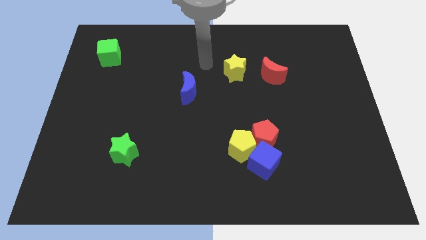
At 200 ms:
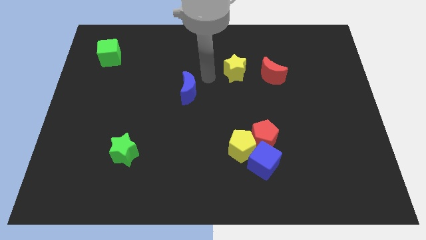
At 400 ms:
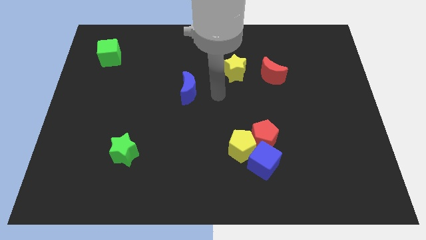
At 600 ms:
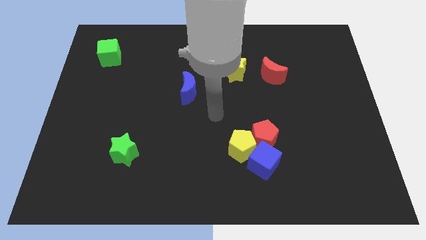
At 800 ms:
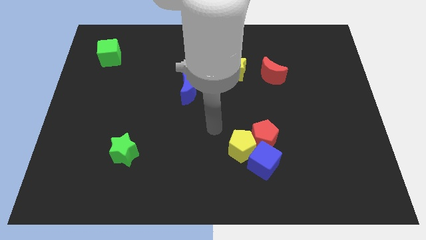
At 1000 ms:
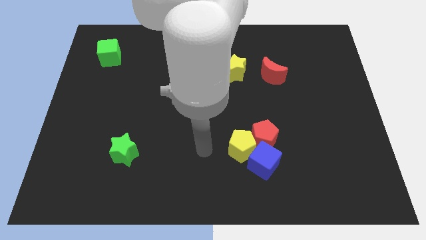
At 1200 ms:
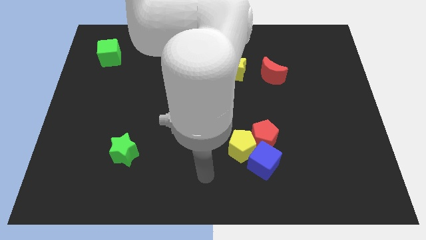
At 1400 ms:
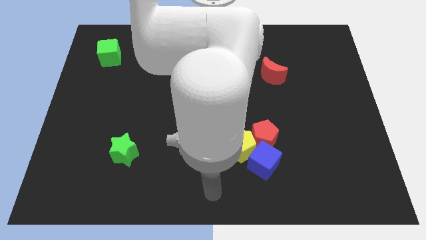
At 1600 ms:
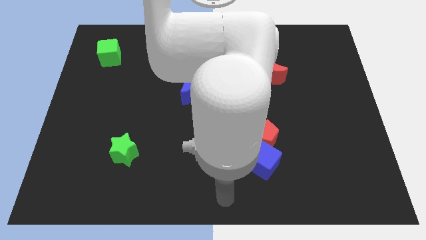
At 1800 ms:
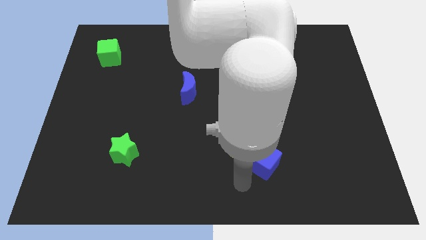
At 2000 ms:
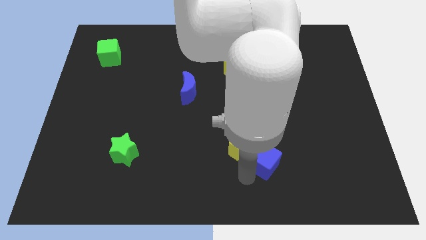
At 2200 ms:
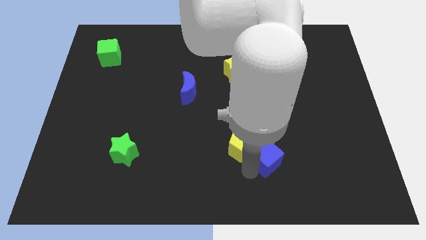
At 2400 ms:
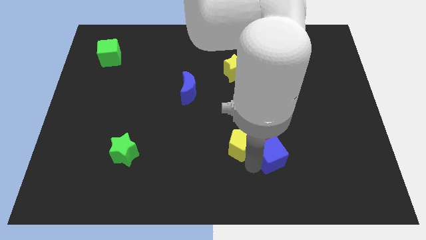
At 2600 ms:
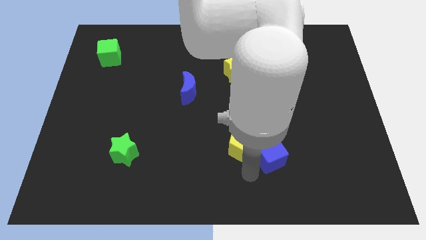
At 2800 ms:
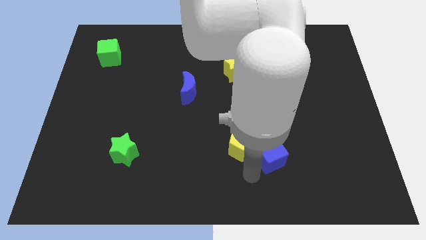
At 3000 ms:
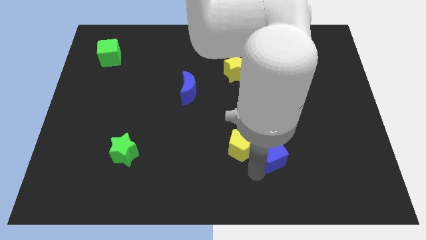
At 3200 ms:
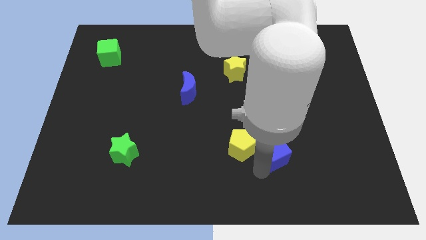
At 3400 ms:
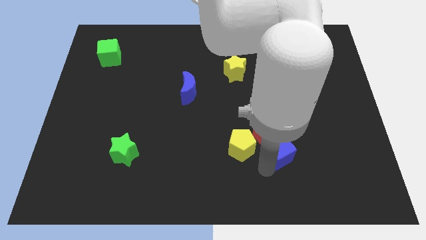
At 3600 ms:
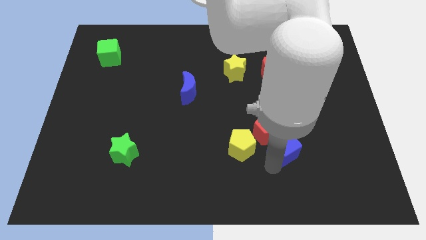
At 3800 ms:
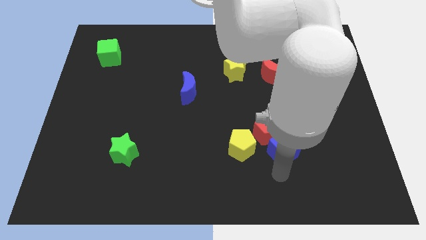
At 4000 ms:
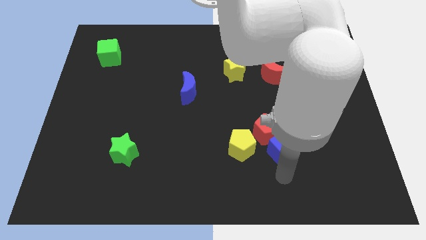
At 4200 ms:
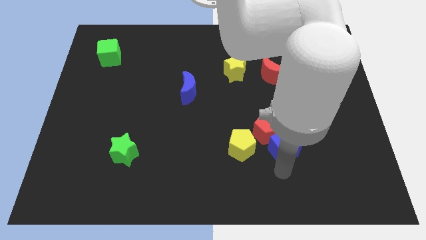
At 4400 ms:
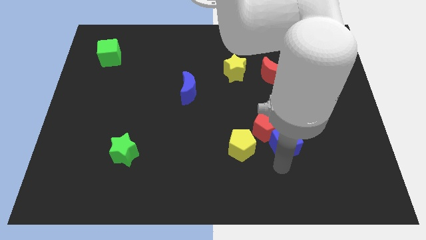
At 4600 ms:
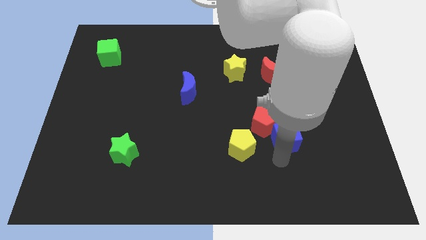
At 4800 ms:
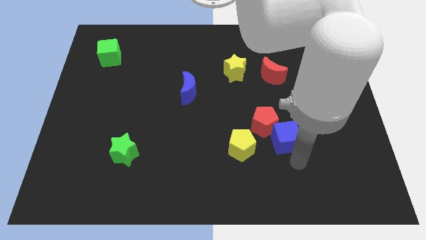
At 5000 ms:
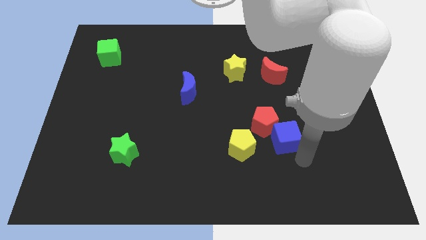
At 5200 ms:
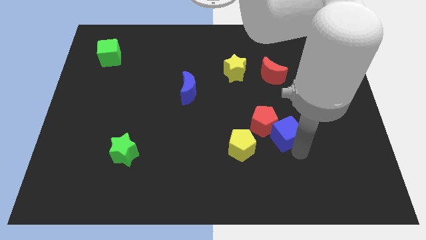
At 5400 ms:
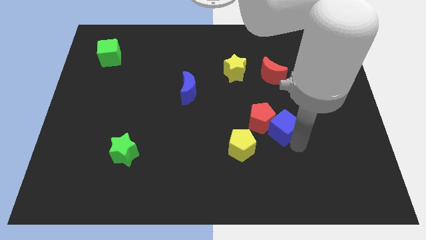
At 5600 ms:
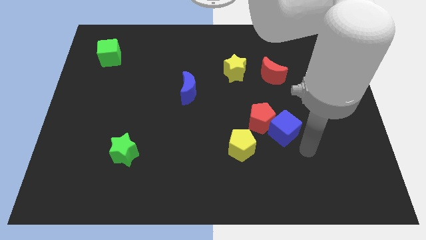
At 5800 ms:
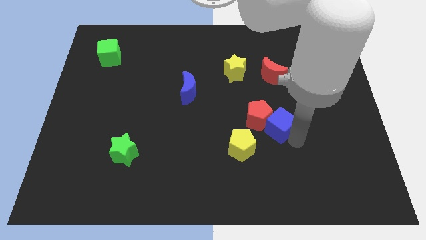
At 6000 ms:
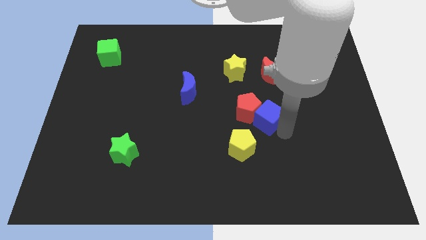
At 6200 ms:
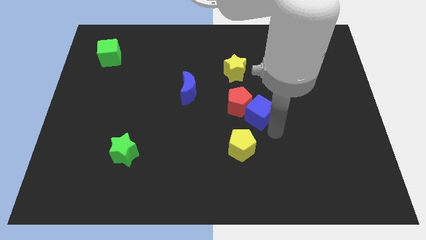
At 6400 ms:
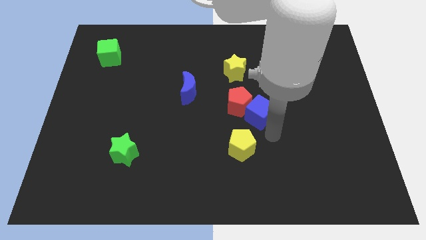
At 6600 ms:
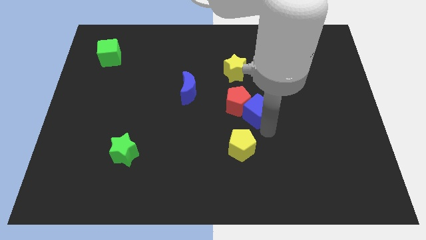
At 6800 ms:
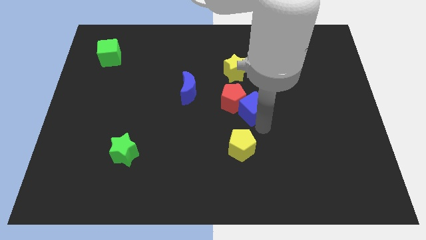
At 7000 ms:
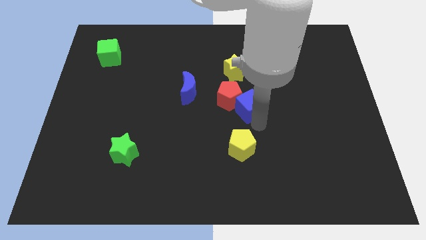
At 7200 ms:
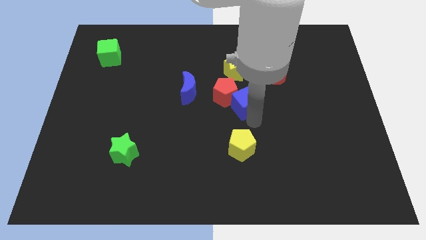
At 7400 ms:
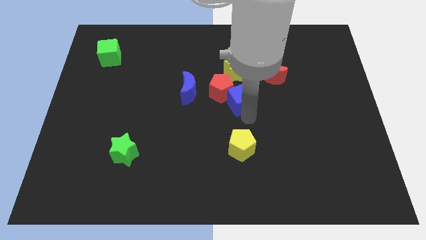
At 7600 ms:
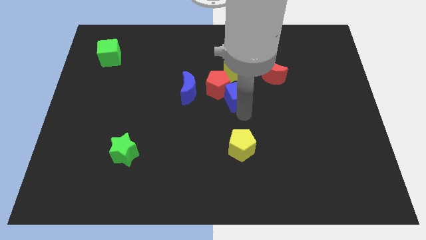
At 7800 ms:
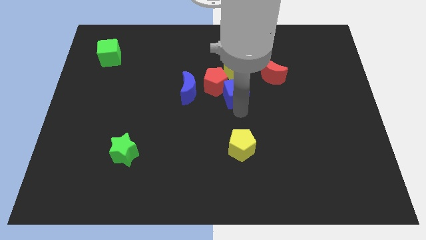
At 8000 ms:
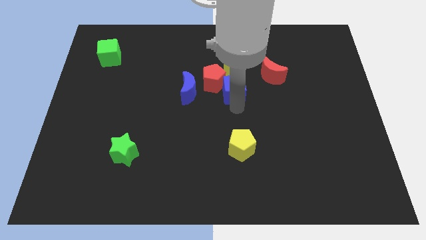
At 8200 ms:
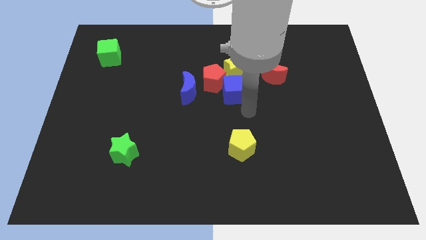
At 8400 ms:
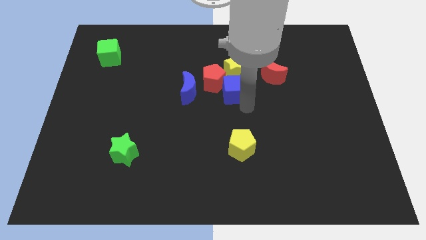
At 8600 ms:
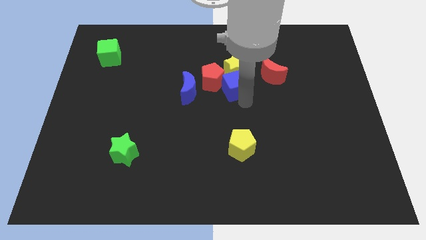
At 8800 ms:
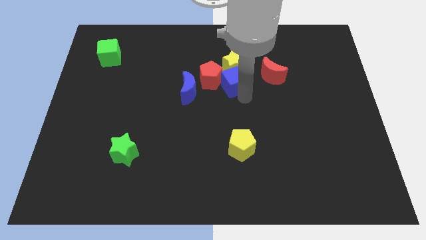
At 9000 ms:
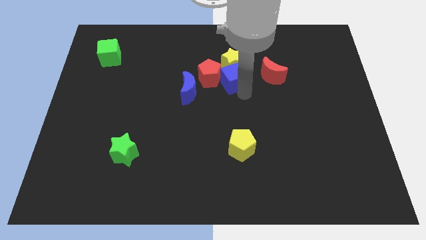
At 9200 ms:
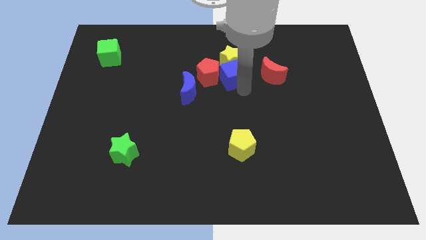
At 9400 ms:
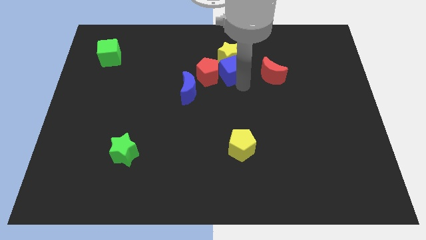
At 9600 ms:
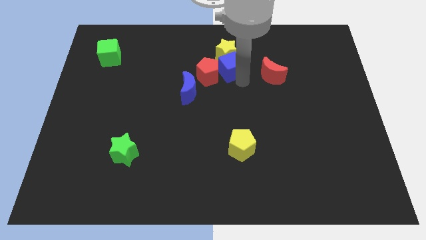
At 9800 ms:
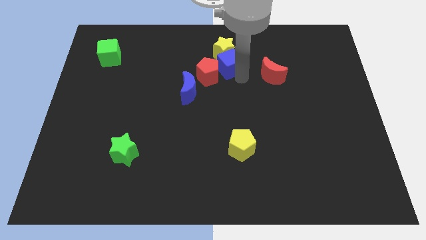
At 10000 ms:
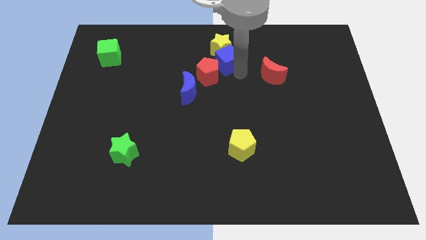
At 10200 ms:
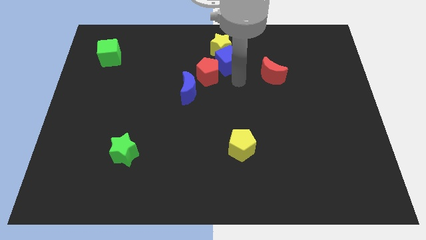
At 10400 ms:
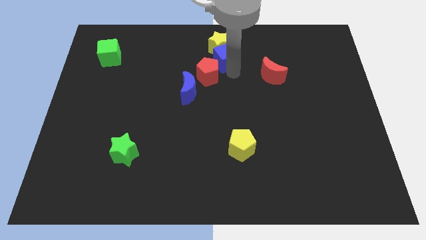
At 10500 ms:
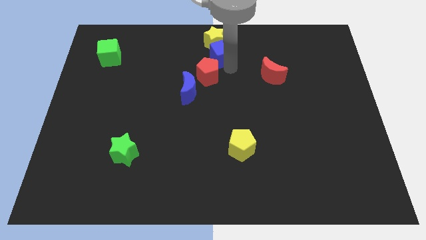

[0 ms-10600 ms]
put the blue cube to the top

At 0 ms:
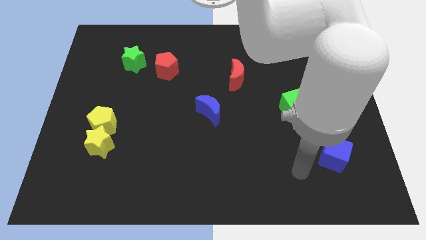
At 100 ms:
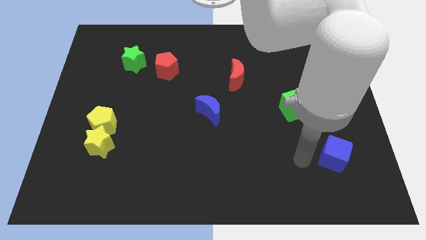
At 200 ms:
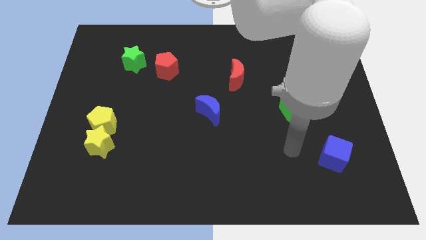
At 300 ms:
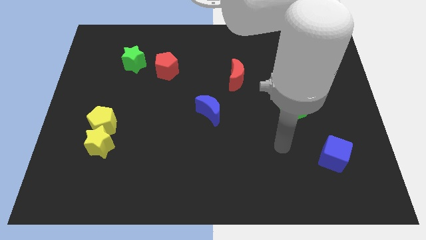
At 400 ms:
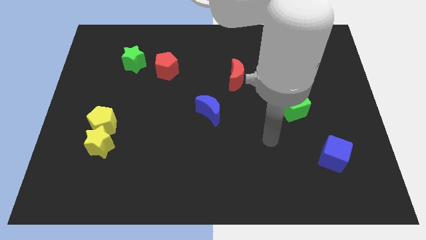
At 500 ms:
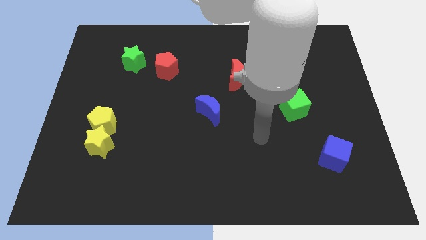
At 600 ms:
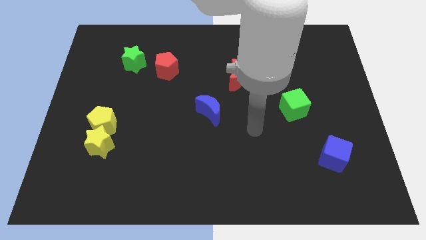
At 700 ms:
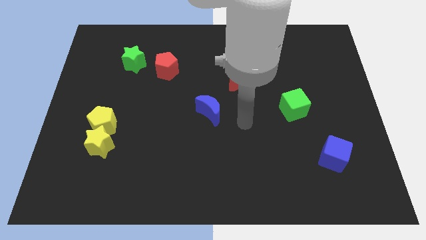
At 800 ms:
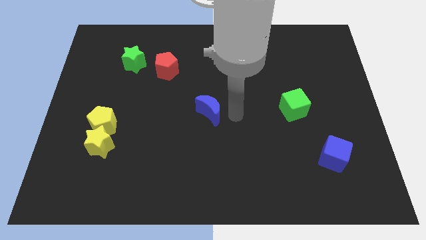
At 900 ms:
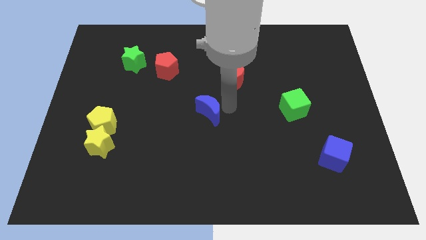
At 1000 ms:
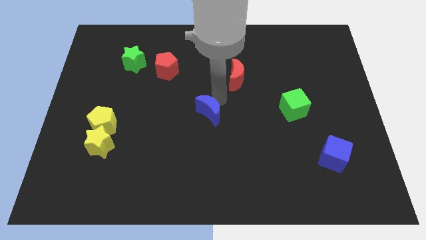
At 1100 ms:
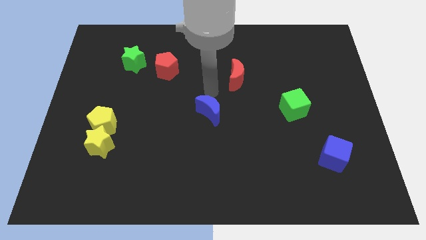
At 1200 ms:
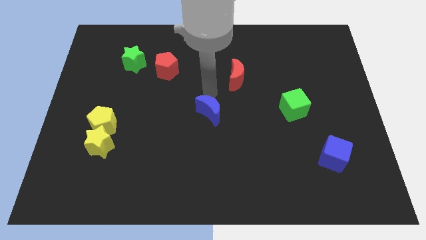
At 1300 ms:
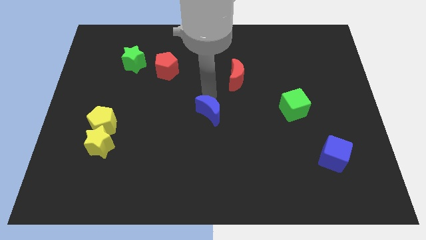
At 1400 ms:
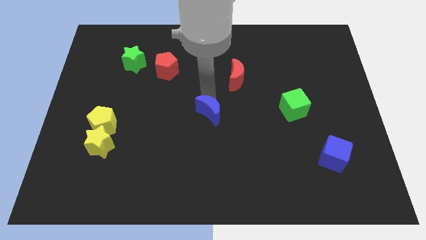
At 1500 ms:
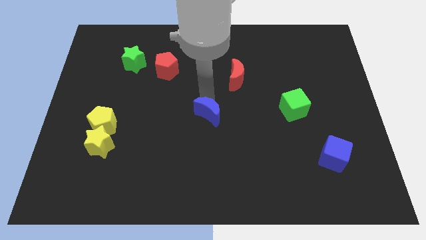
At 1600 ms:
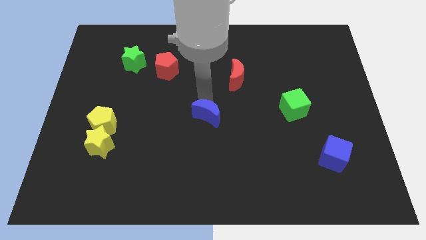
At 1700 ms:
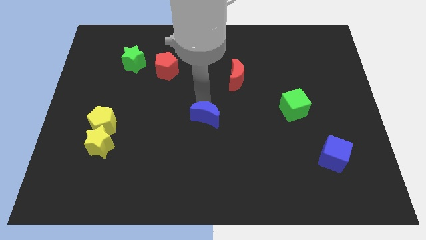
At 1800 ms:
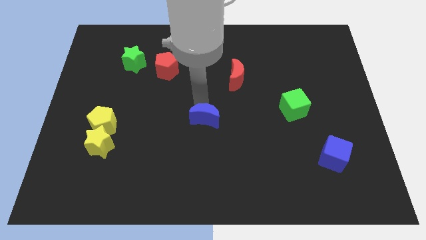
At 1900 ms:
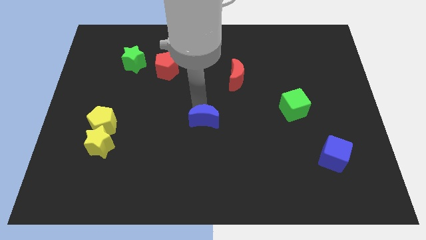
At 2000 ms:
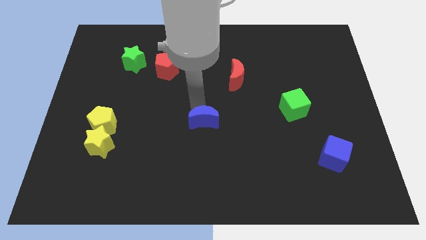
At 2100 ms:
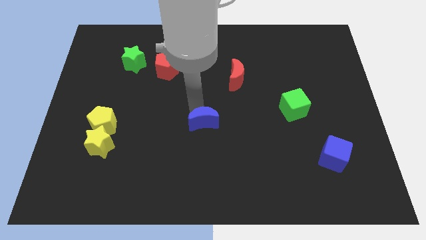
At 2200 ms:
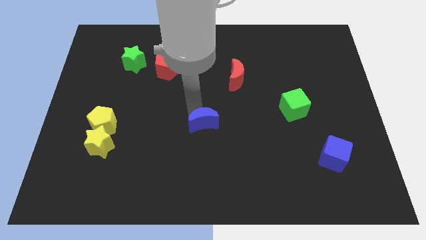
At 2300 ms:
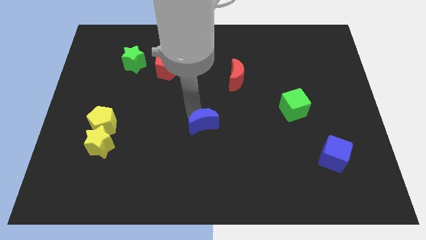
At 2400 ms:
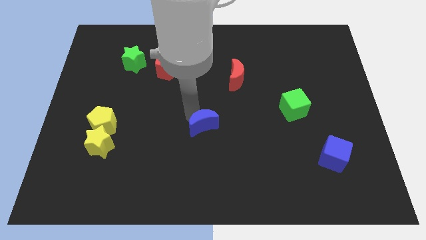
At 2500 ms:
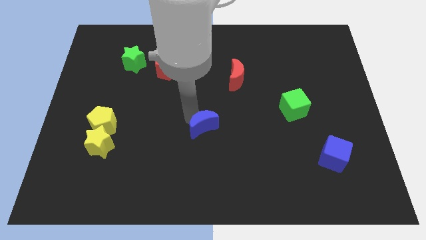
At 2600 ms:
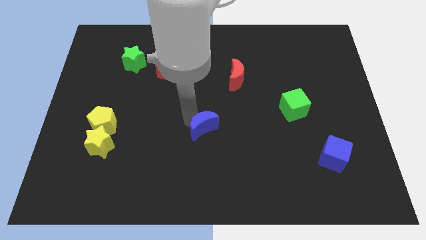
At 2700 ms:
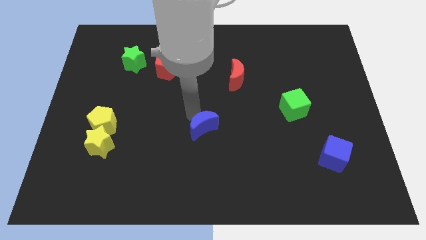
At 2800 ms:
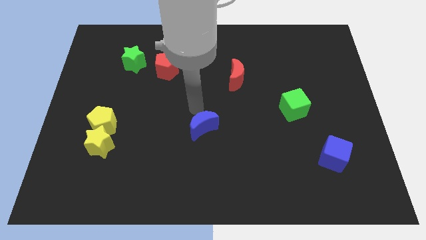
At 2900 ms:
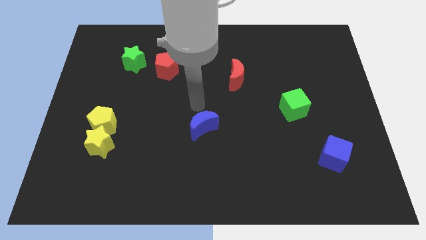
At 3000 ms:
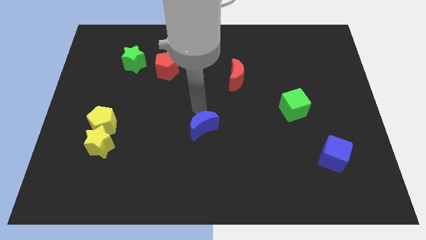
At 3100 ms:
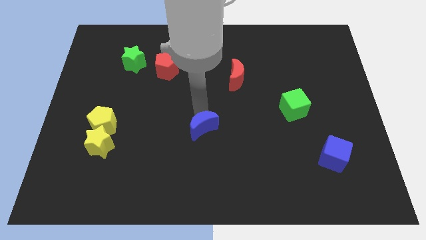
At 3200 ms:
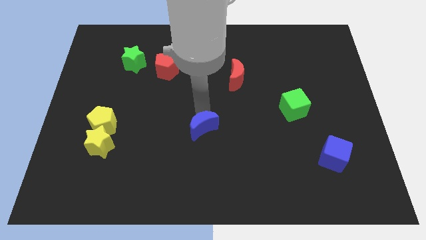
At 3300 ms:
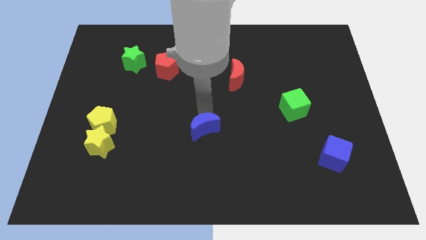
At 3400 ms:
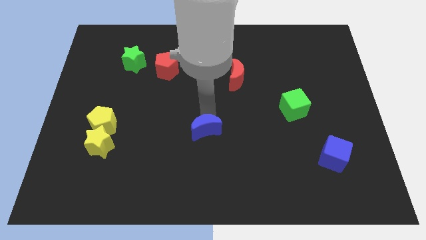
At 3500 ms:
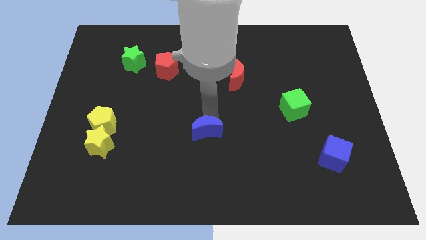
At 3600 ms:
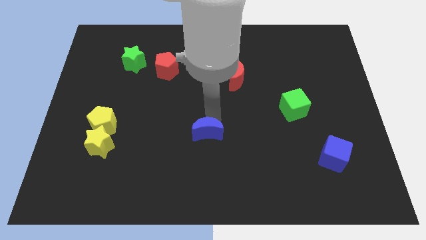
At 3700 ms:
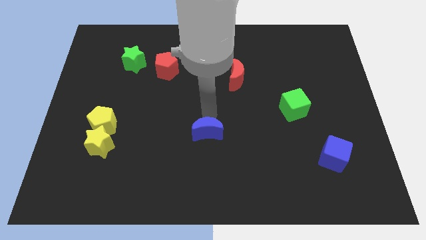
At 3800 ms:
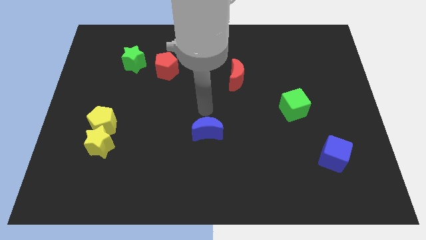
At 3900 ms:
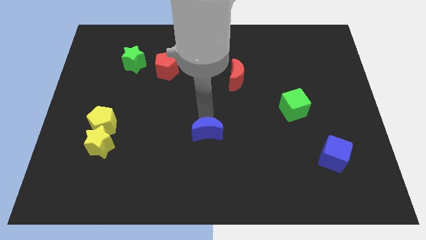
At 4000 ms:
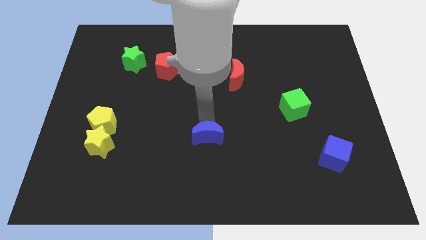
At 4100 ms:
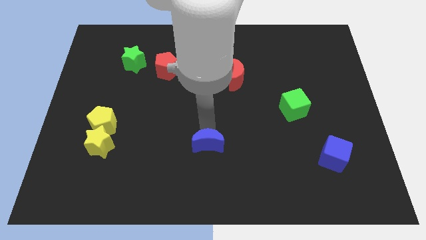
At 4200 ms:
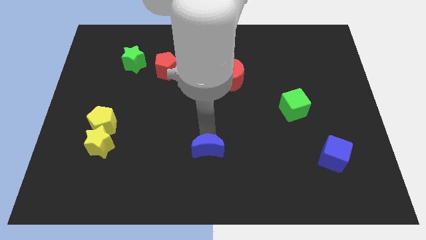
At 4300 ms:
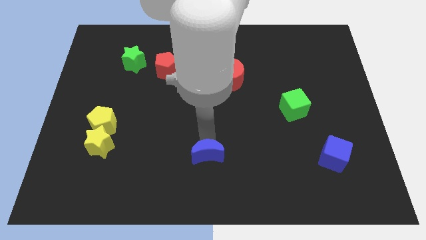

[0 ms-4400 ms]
slide the blue moon to the bottom side
